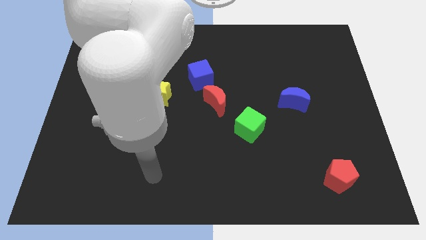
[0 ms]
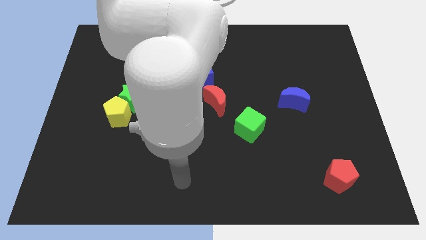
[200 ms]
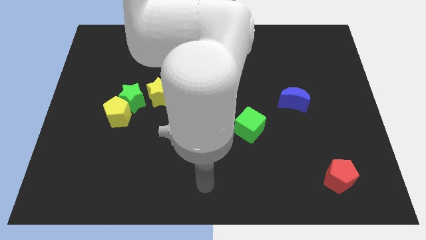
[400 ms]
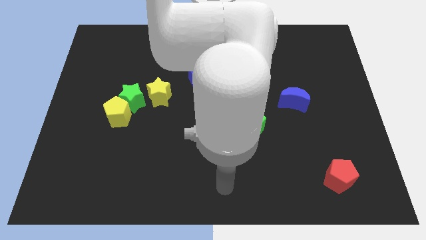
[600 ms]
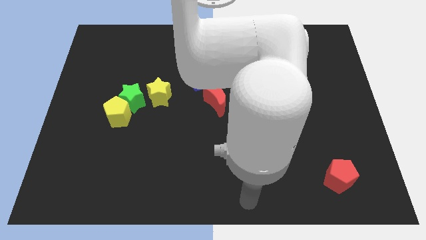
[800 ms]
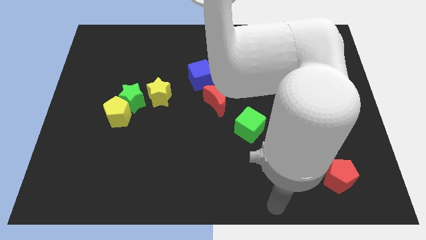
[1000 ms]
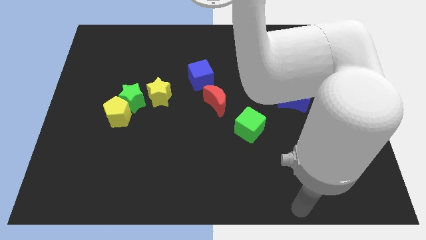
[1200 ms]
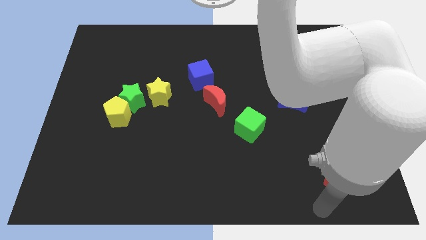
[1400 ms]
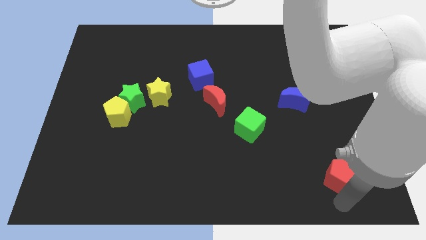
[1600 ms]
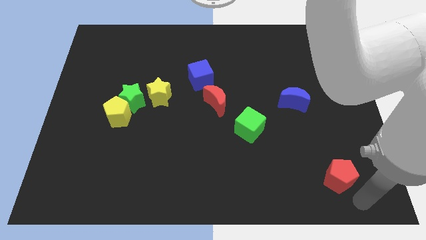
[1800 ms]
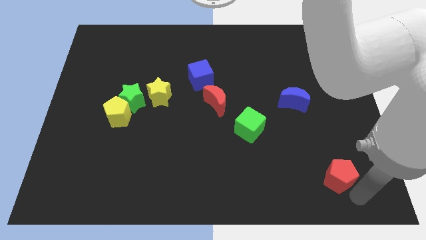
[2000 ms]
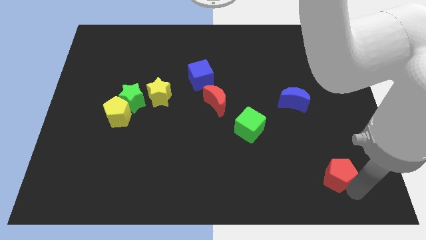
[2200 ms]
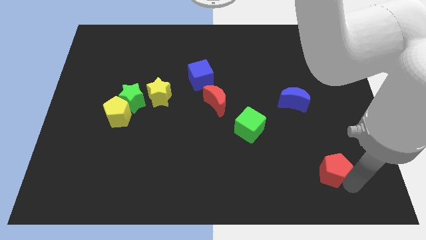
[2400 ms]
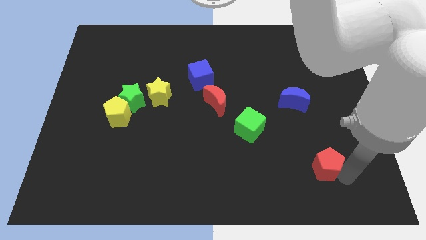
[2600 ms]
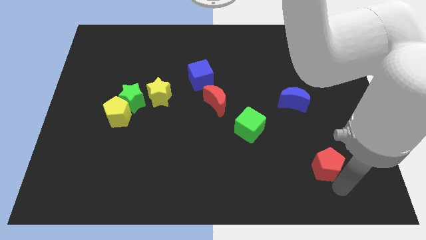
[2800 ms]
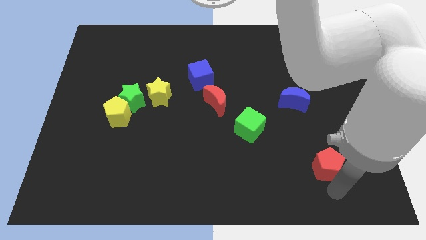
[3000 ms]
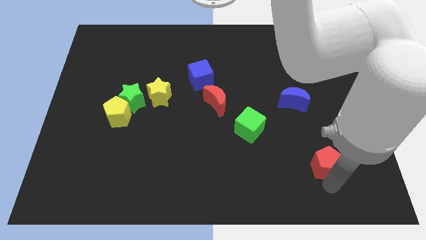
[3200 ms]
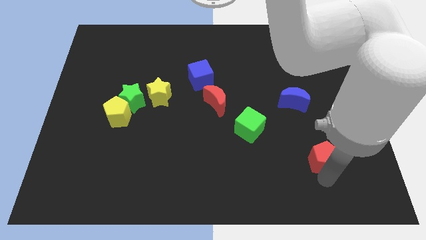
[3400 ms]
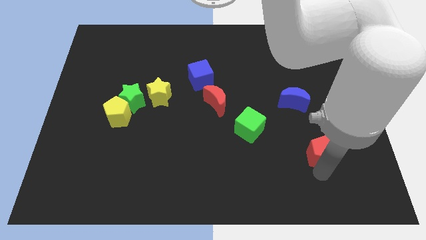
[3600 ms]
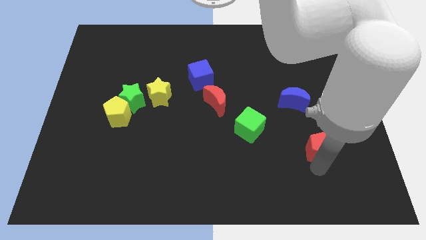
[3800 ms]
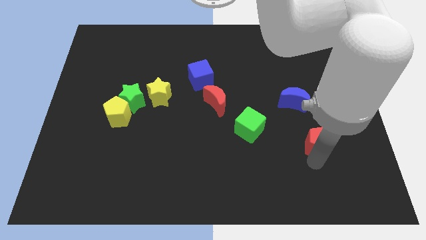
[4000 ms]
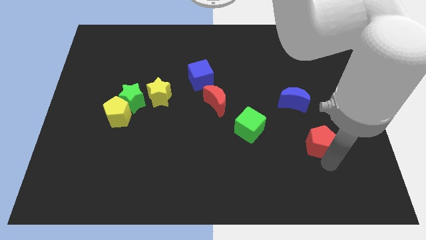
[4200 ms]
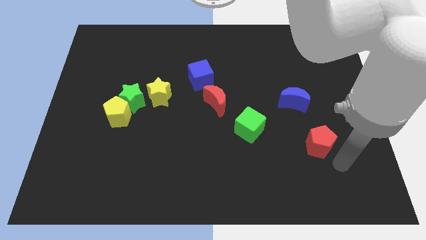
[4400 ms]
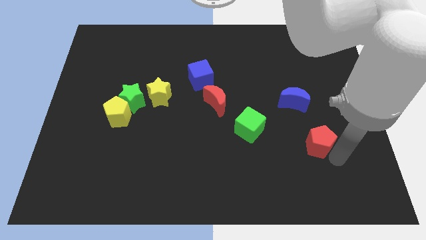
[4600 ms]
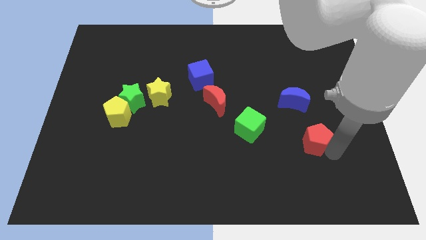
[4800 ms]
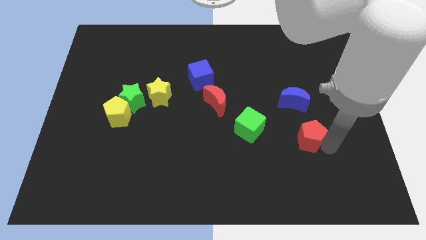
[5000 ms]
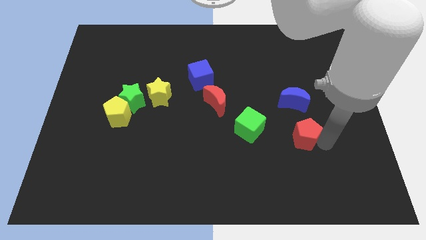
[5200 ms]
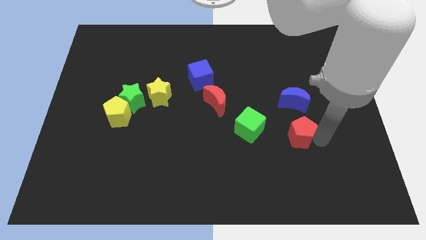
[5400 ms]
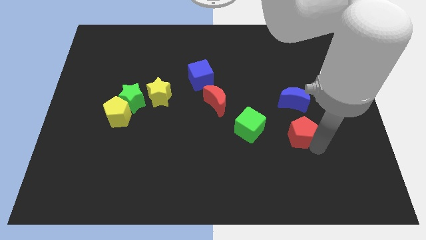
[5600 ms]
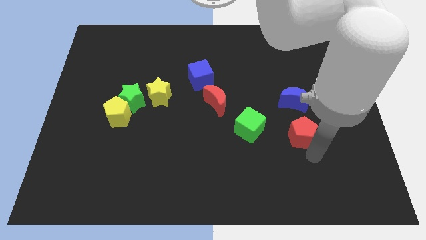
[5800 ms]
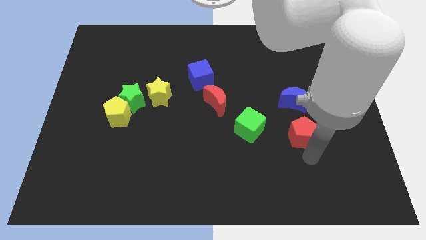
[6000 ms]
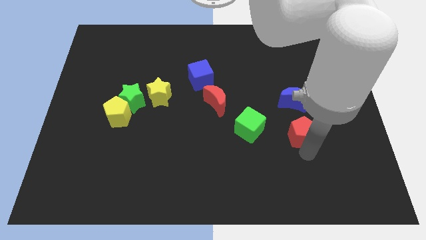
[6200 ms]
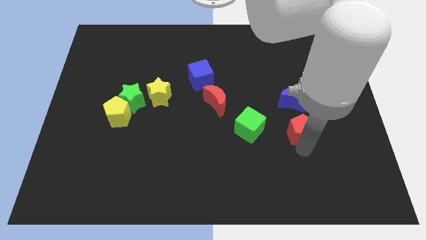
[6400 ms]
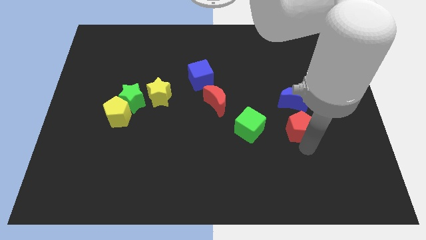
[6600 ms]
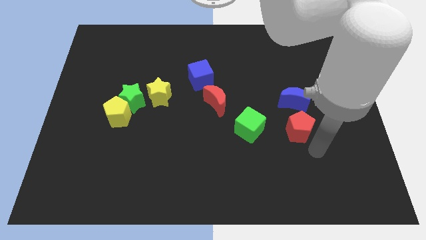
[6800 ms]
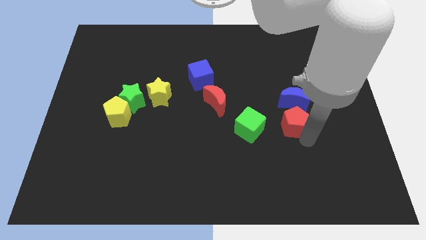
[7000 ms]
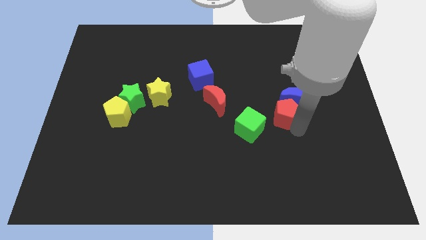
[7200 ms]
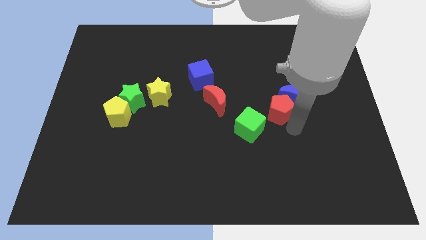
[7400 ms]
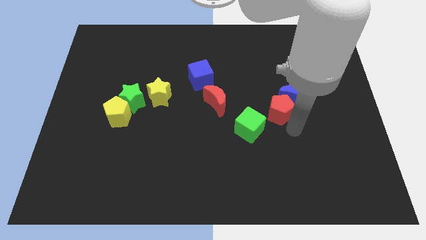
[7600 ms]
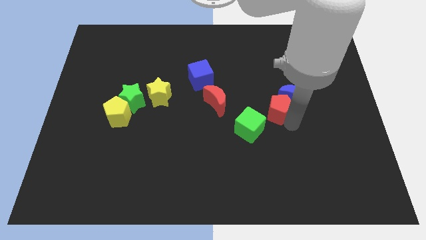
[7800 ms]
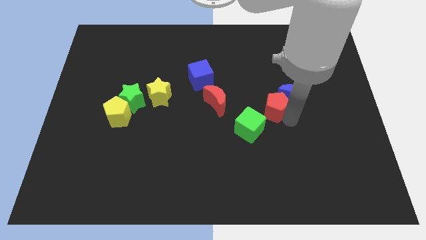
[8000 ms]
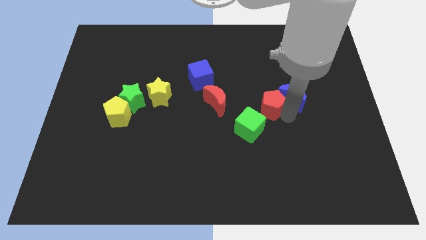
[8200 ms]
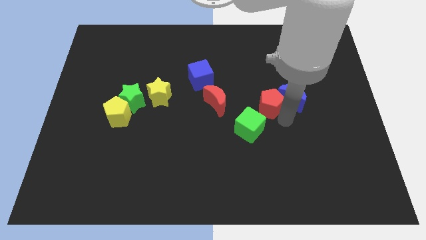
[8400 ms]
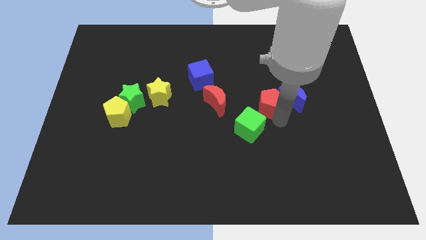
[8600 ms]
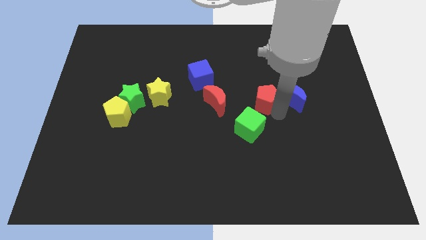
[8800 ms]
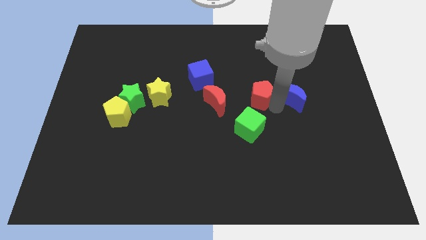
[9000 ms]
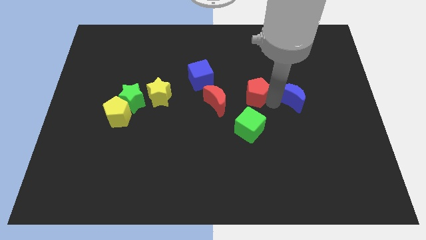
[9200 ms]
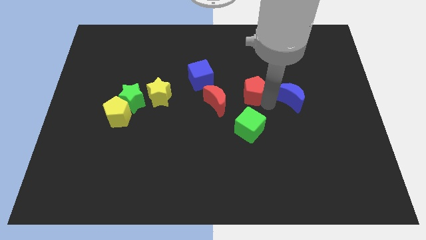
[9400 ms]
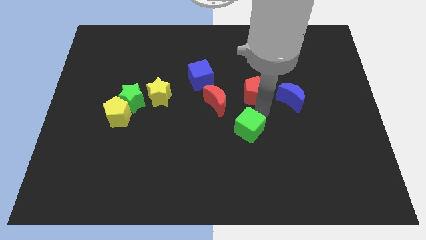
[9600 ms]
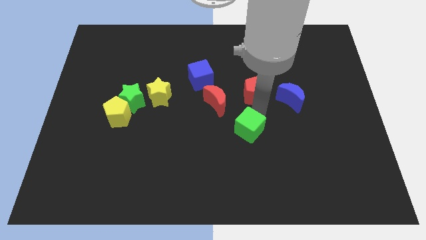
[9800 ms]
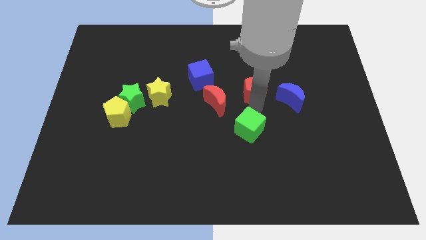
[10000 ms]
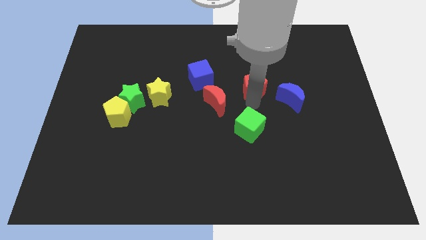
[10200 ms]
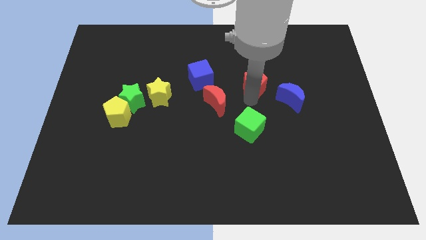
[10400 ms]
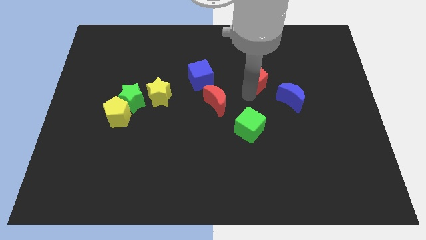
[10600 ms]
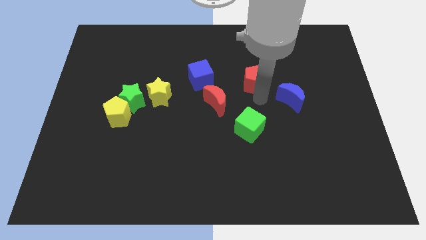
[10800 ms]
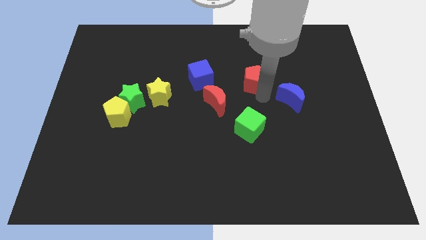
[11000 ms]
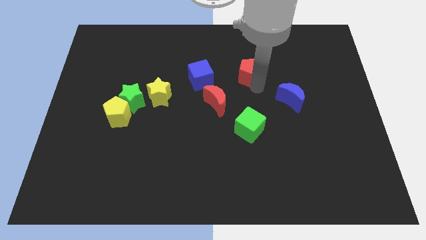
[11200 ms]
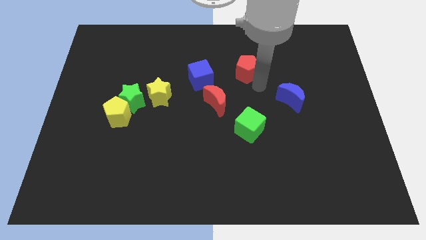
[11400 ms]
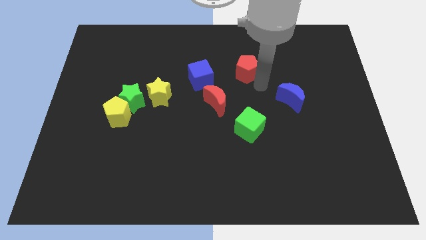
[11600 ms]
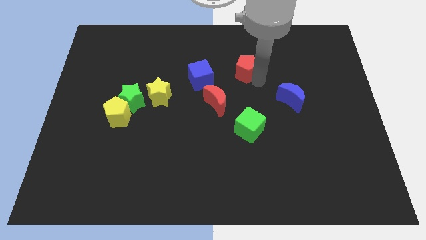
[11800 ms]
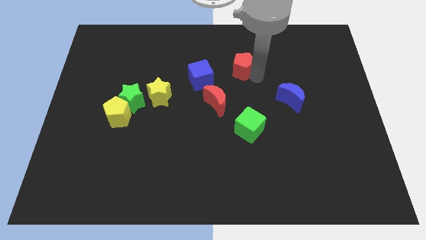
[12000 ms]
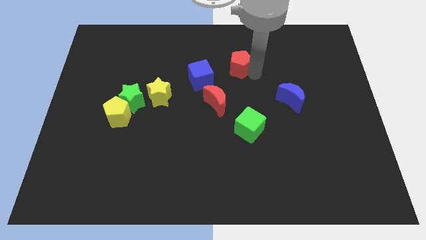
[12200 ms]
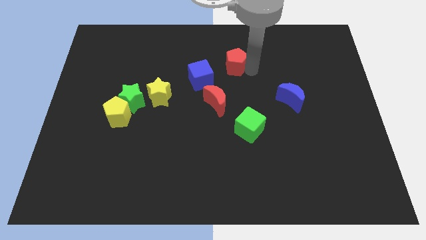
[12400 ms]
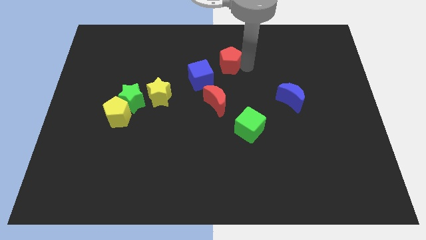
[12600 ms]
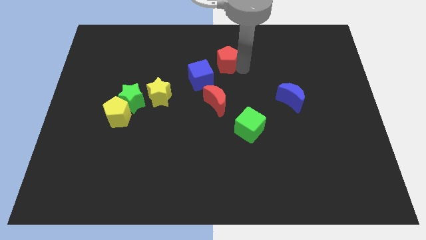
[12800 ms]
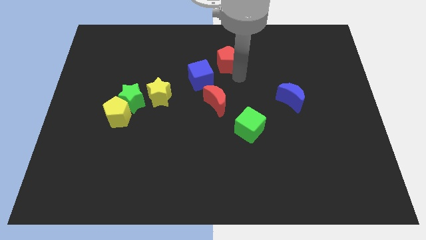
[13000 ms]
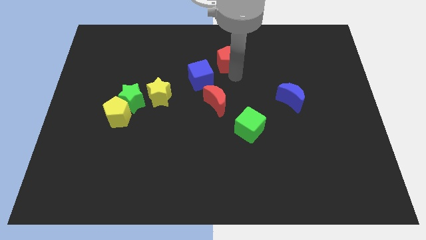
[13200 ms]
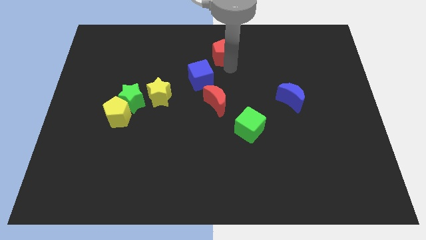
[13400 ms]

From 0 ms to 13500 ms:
slide the red pentagon to the top side
